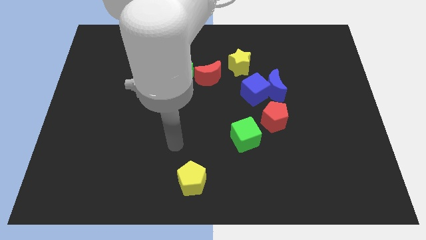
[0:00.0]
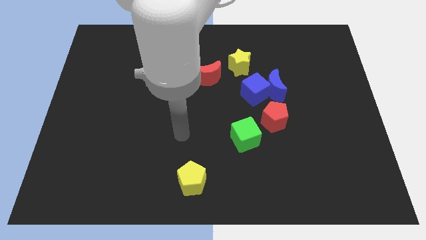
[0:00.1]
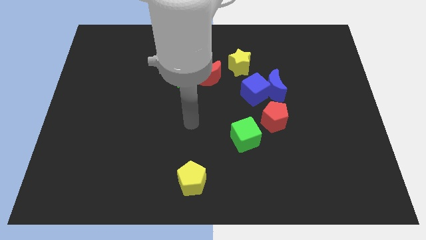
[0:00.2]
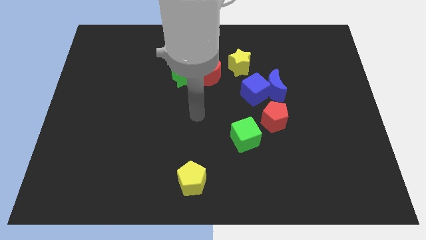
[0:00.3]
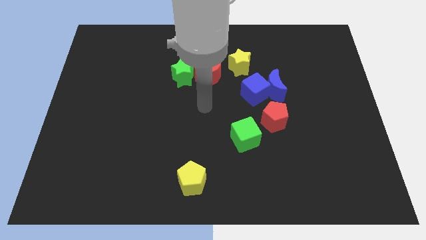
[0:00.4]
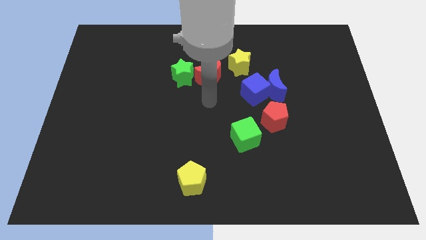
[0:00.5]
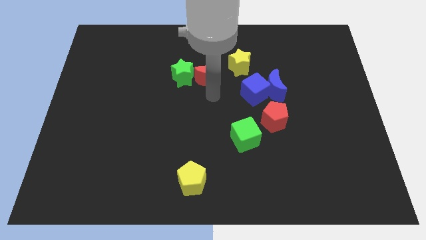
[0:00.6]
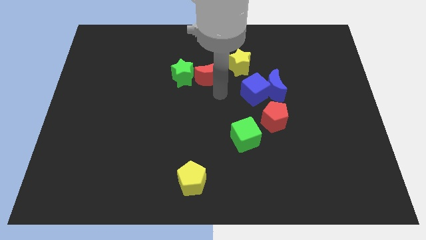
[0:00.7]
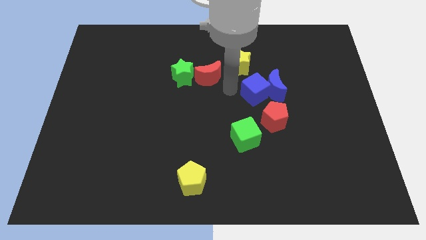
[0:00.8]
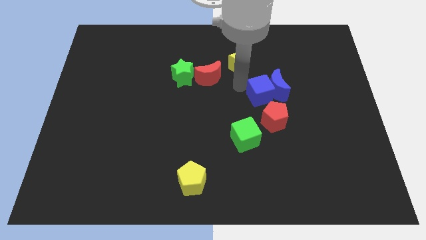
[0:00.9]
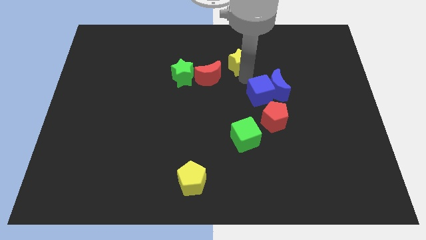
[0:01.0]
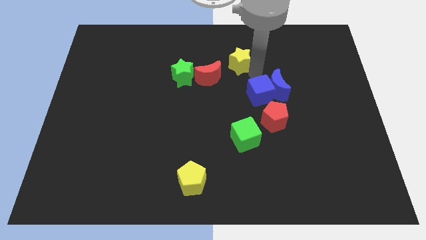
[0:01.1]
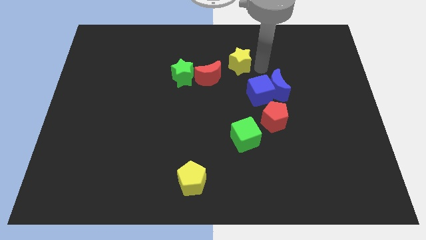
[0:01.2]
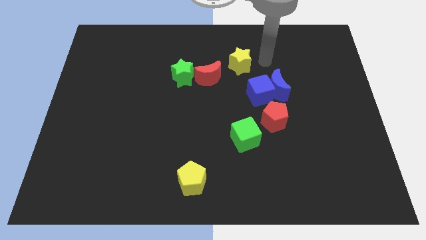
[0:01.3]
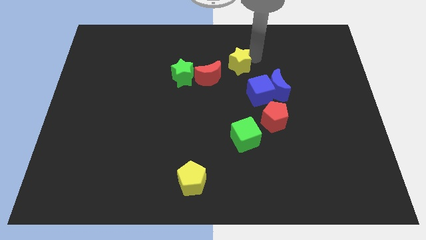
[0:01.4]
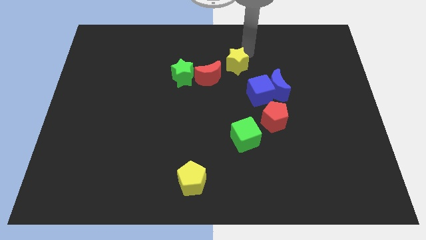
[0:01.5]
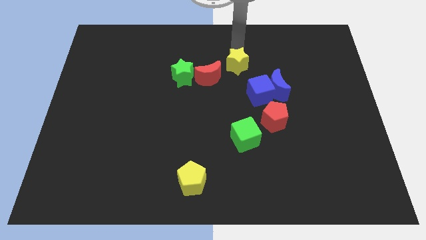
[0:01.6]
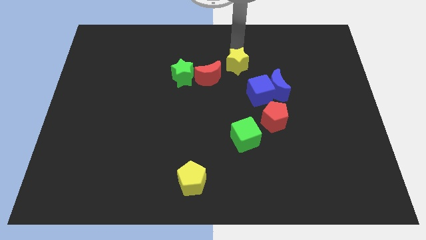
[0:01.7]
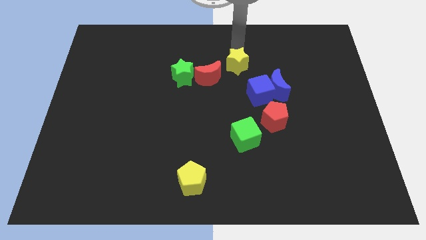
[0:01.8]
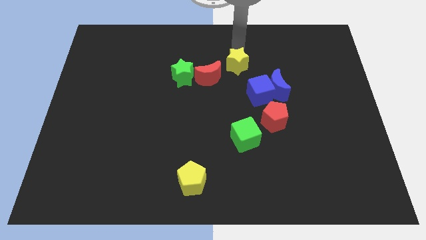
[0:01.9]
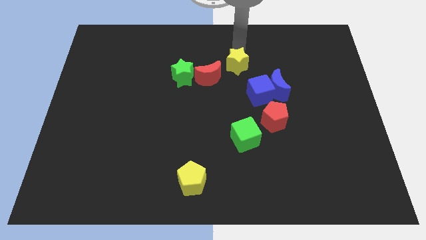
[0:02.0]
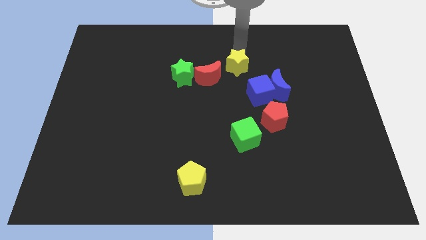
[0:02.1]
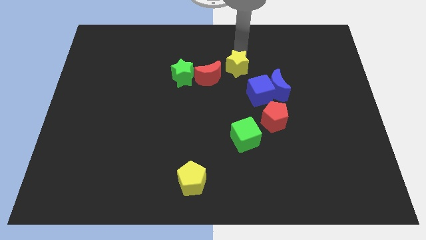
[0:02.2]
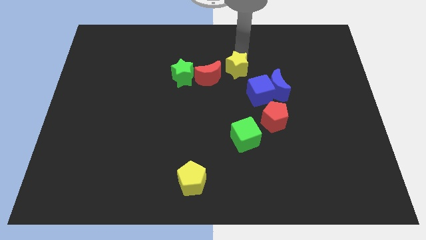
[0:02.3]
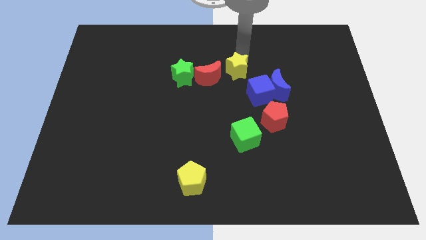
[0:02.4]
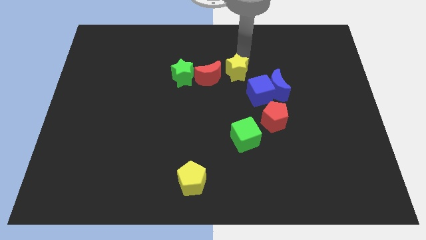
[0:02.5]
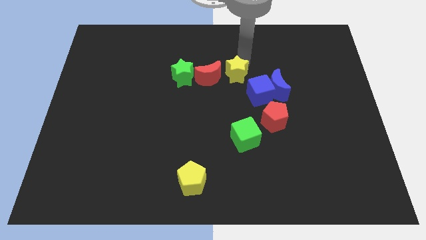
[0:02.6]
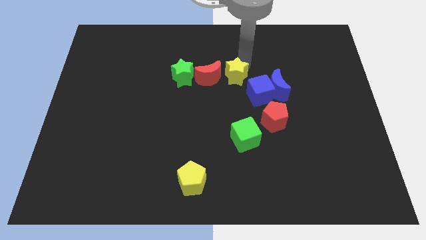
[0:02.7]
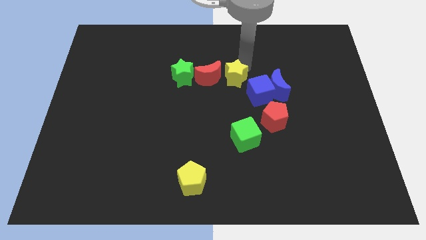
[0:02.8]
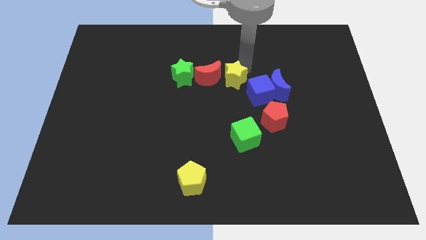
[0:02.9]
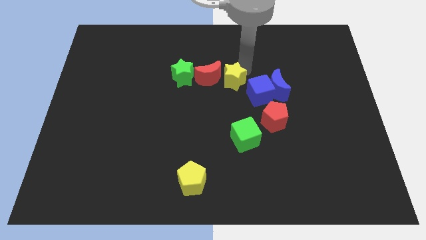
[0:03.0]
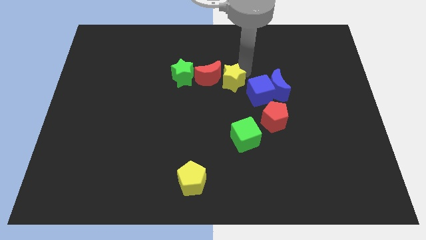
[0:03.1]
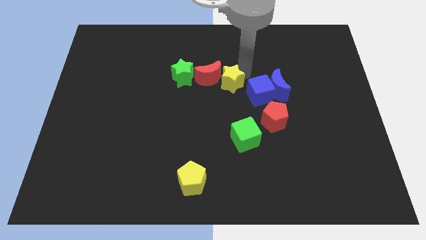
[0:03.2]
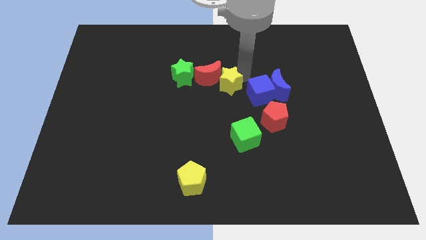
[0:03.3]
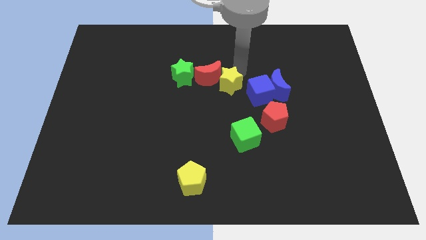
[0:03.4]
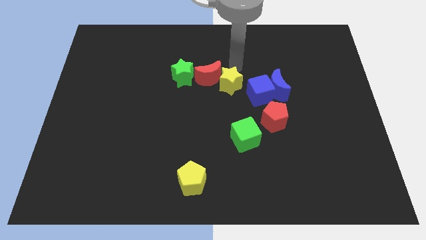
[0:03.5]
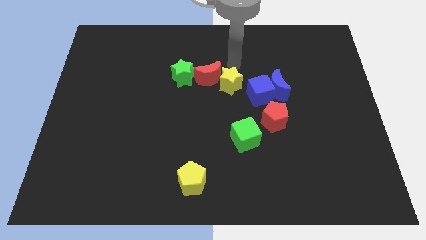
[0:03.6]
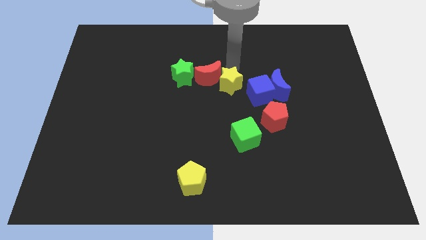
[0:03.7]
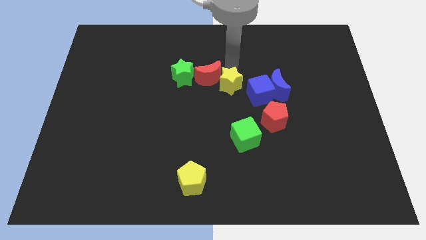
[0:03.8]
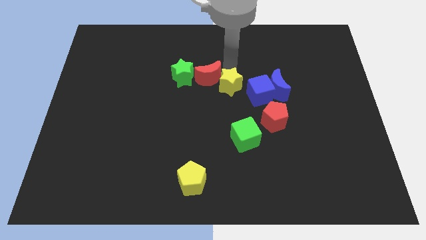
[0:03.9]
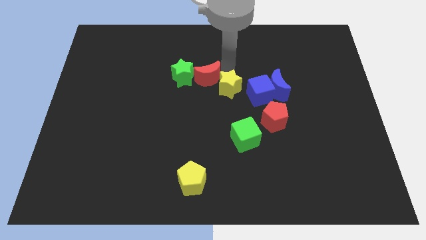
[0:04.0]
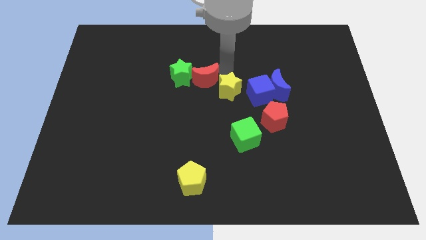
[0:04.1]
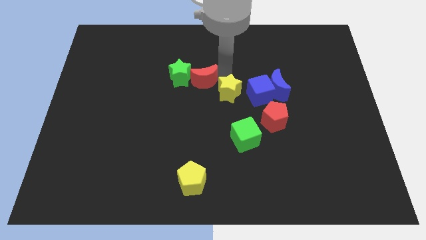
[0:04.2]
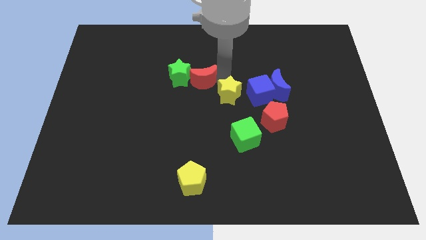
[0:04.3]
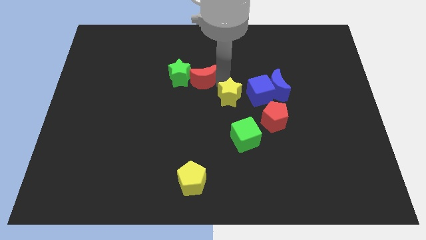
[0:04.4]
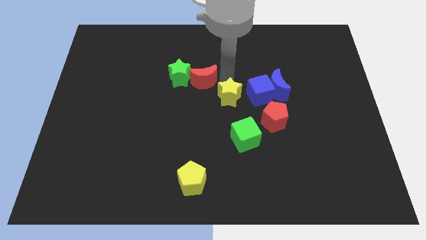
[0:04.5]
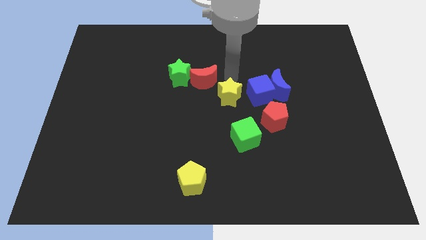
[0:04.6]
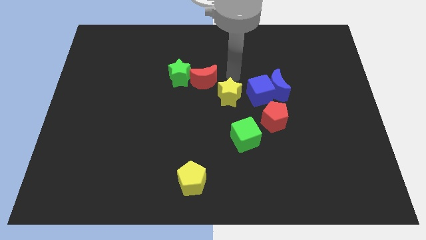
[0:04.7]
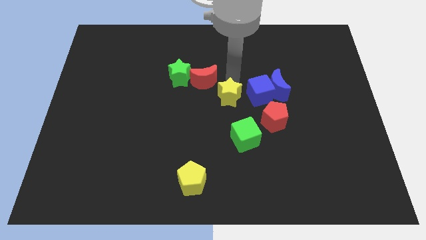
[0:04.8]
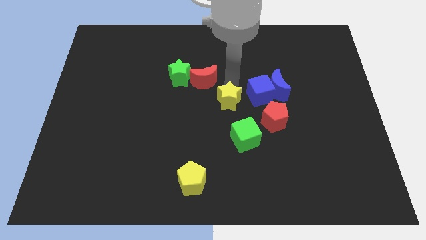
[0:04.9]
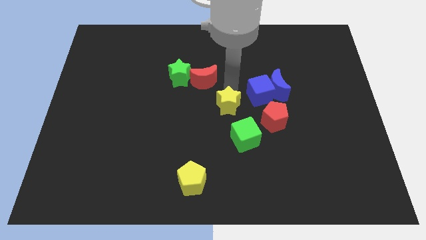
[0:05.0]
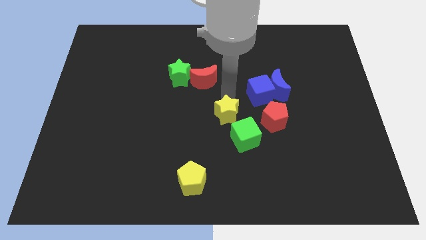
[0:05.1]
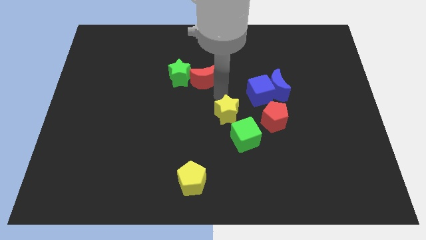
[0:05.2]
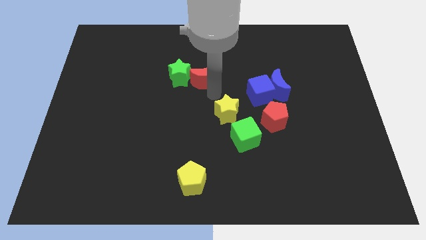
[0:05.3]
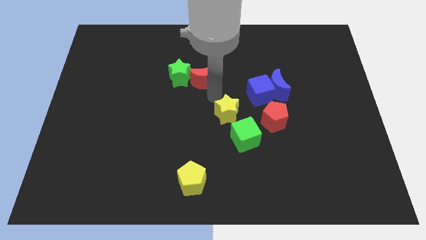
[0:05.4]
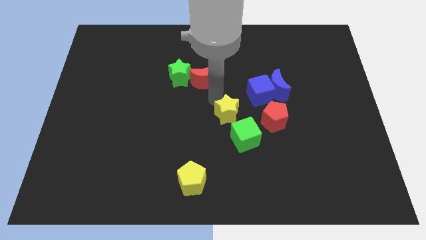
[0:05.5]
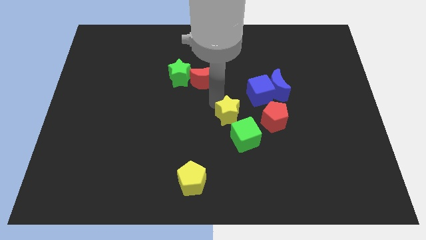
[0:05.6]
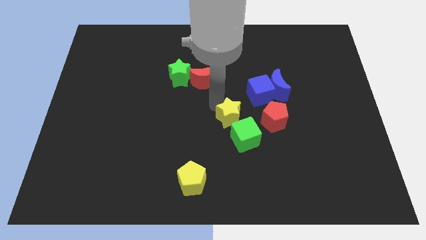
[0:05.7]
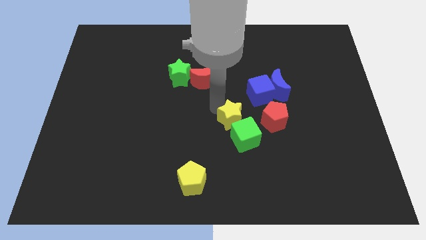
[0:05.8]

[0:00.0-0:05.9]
put the yellow star next to the green cube

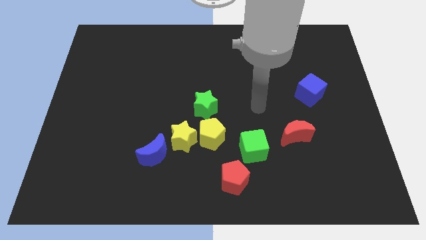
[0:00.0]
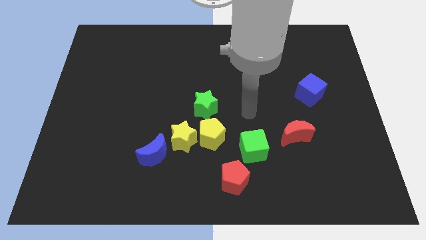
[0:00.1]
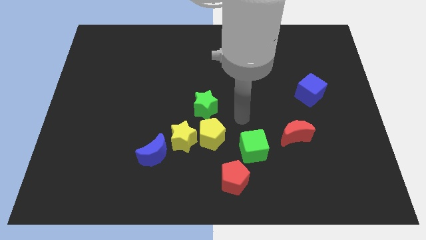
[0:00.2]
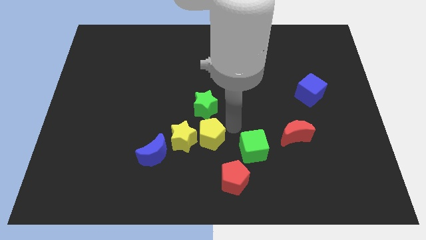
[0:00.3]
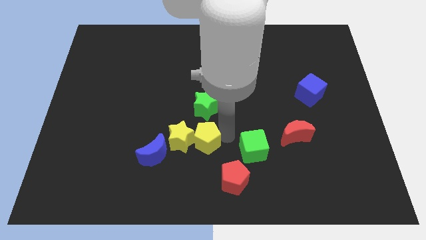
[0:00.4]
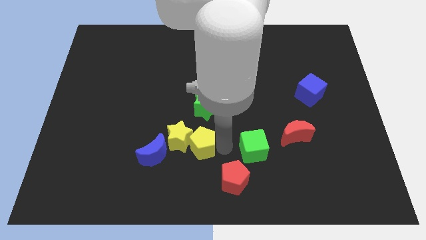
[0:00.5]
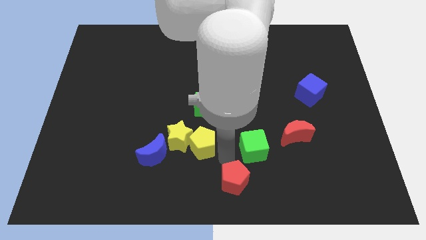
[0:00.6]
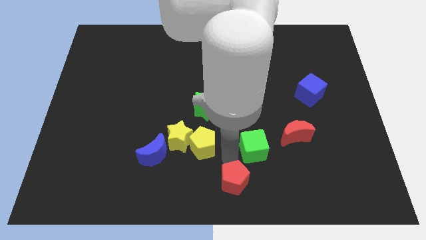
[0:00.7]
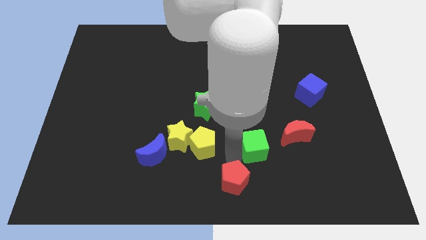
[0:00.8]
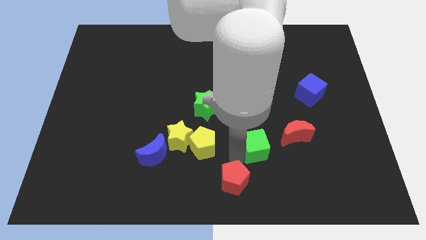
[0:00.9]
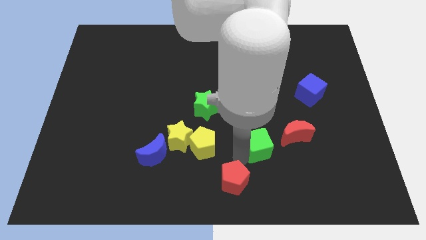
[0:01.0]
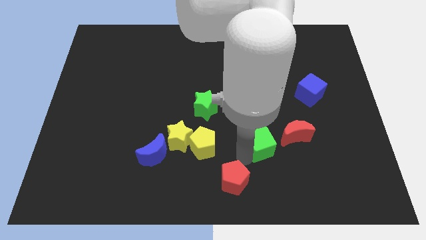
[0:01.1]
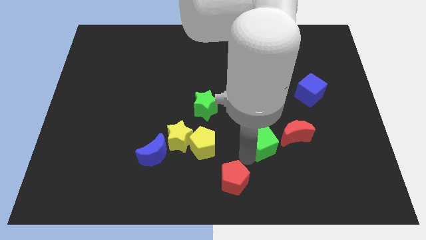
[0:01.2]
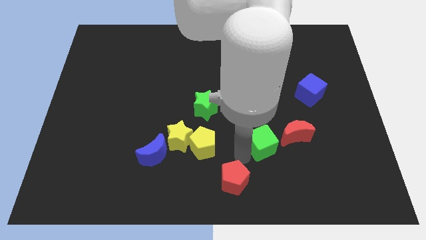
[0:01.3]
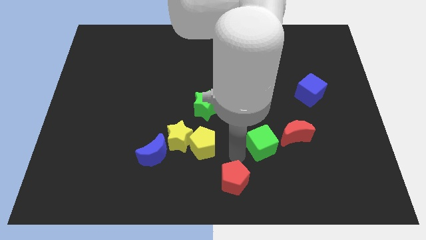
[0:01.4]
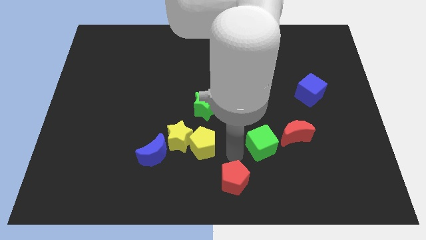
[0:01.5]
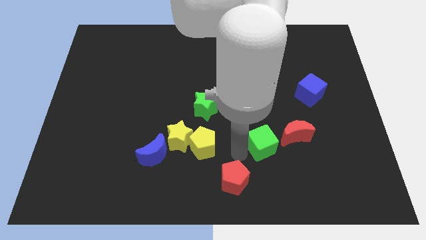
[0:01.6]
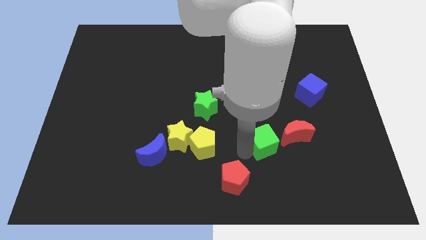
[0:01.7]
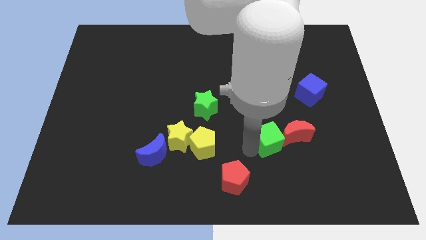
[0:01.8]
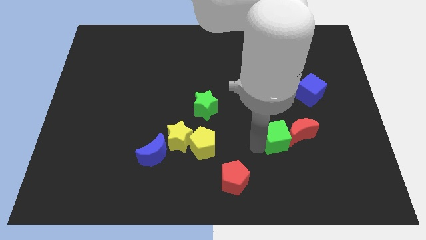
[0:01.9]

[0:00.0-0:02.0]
slide the green cube close to the red moon
